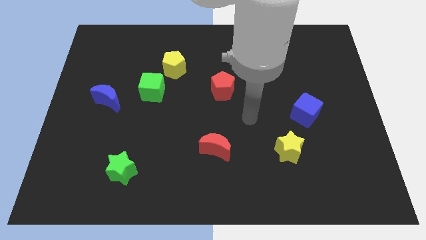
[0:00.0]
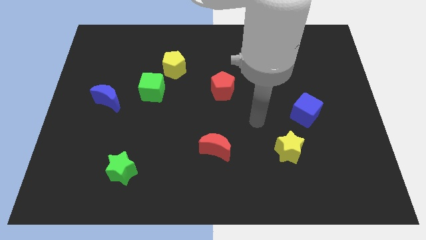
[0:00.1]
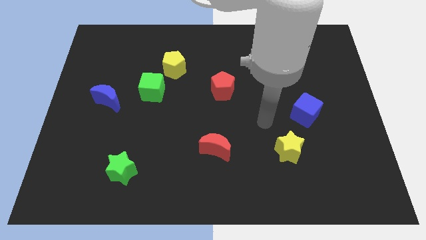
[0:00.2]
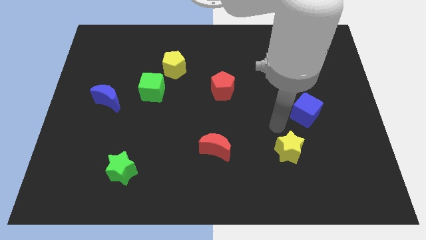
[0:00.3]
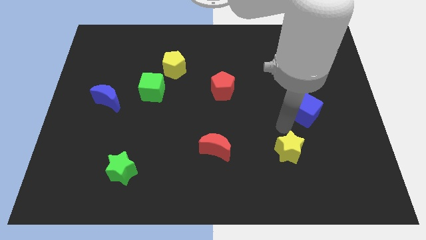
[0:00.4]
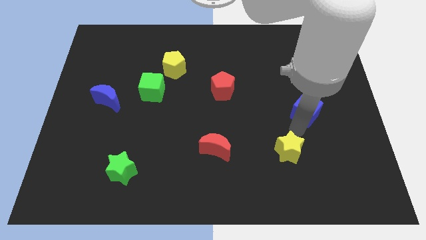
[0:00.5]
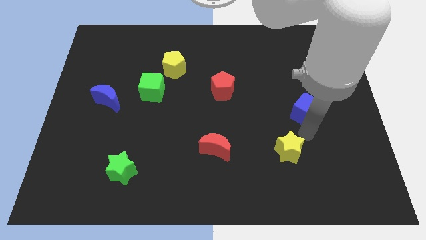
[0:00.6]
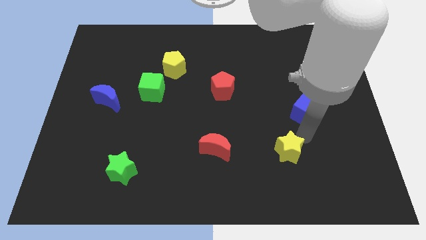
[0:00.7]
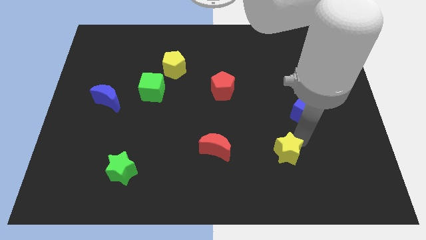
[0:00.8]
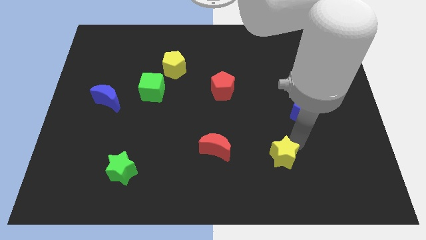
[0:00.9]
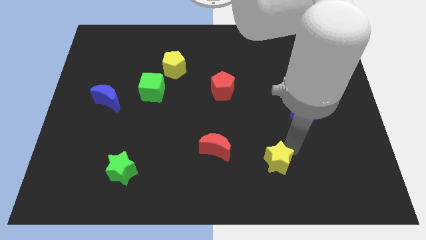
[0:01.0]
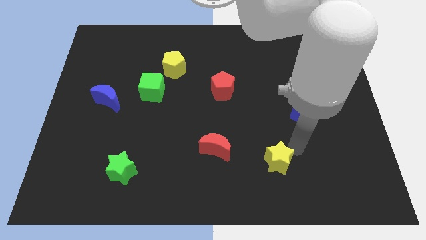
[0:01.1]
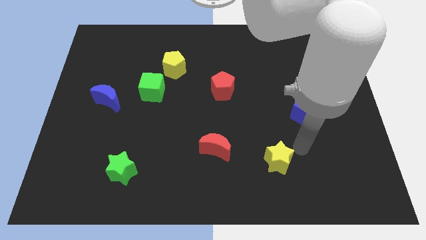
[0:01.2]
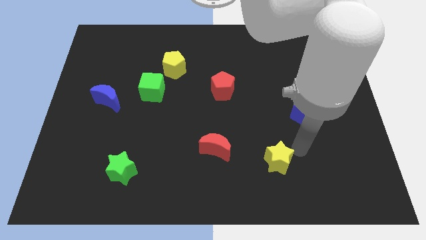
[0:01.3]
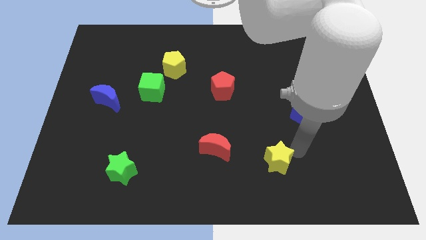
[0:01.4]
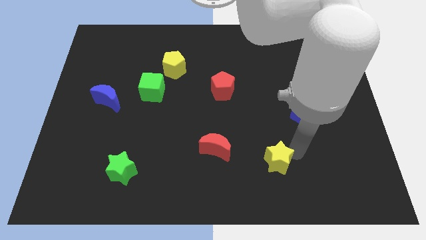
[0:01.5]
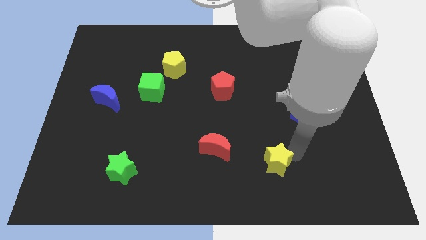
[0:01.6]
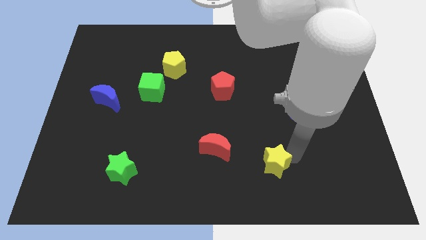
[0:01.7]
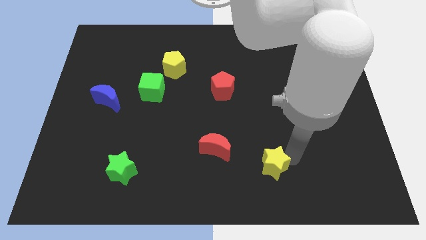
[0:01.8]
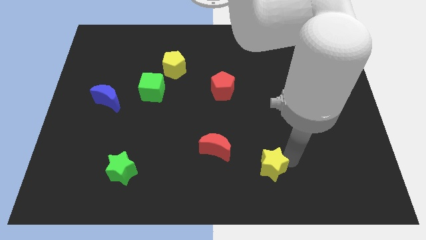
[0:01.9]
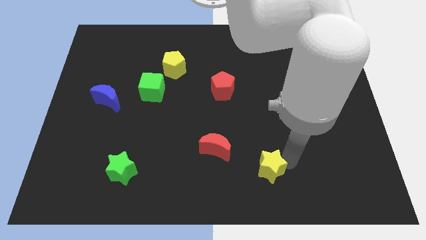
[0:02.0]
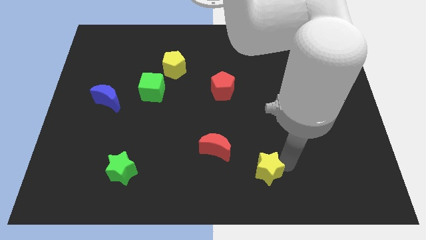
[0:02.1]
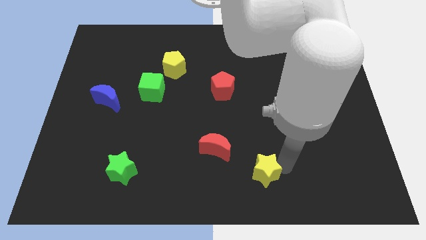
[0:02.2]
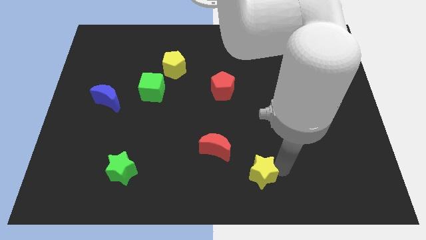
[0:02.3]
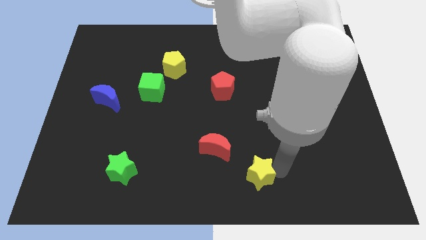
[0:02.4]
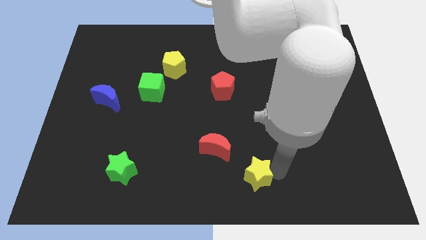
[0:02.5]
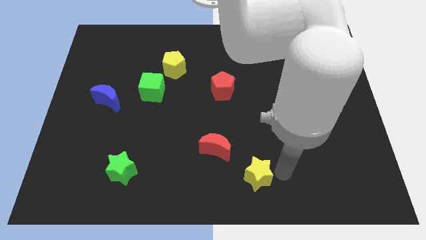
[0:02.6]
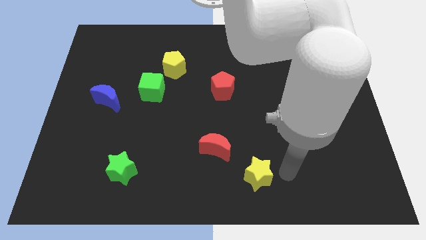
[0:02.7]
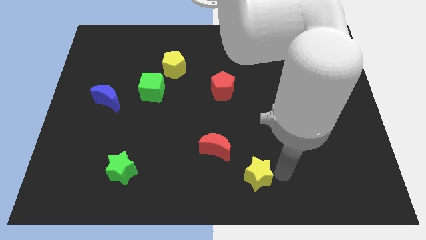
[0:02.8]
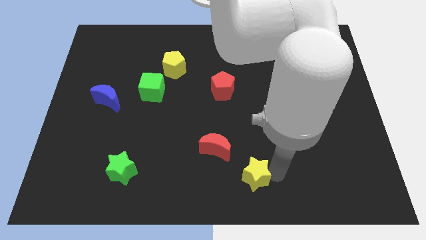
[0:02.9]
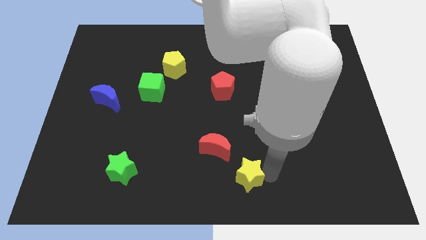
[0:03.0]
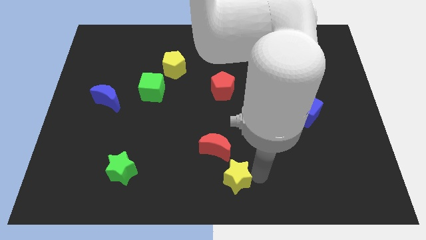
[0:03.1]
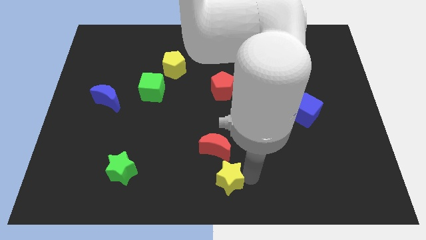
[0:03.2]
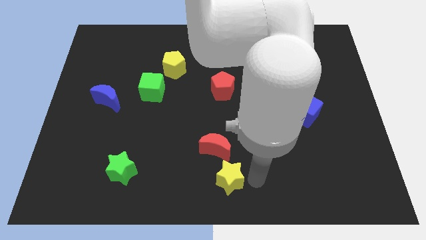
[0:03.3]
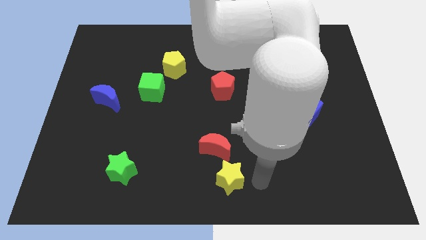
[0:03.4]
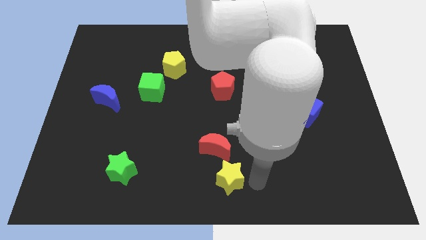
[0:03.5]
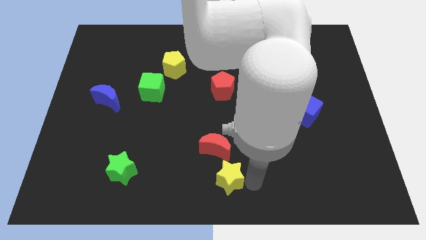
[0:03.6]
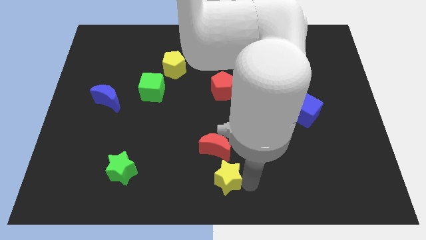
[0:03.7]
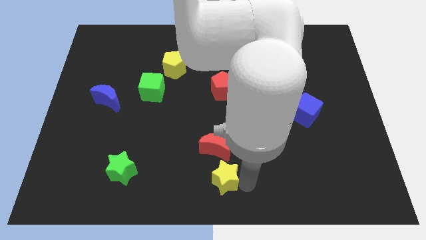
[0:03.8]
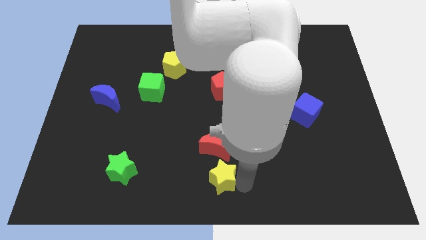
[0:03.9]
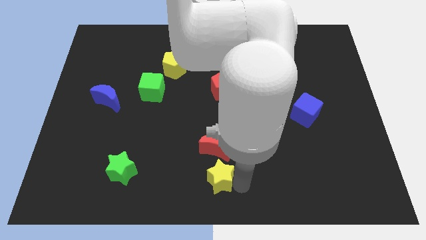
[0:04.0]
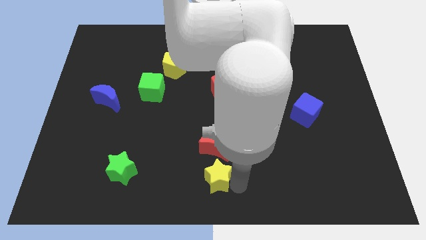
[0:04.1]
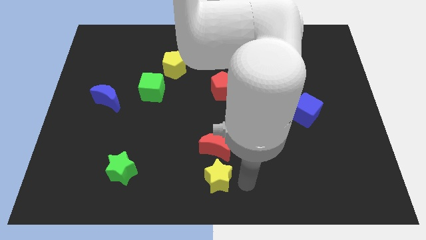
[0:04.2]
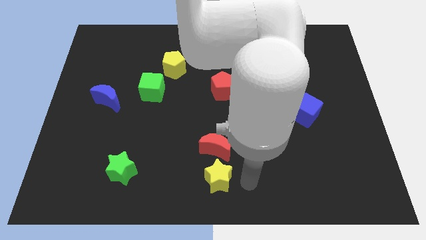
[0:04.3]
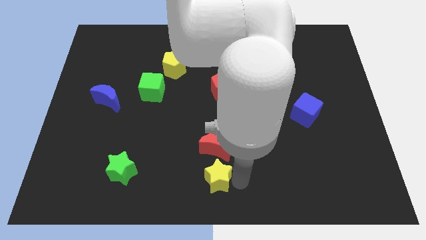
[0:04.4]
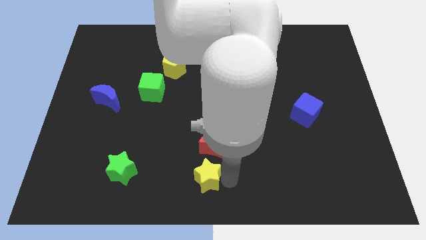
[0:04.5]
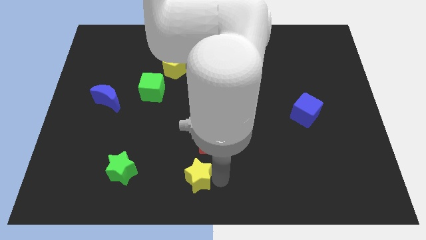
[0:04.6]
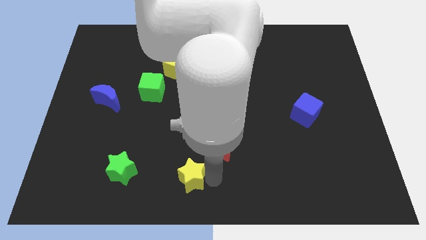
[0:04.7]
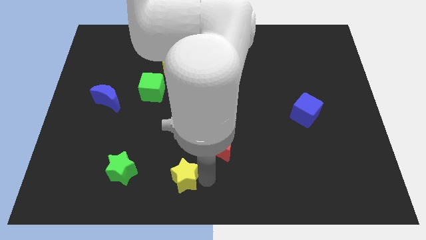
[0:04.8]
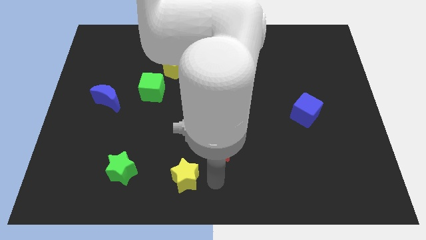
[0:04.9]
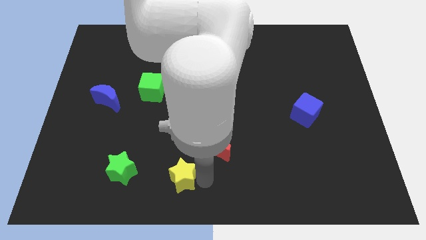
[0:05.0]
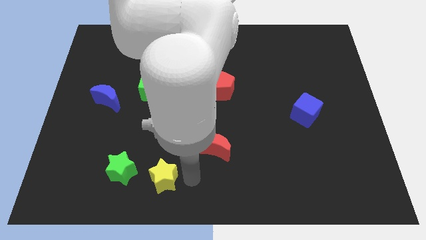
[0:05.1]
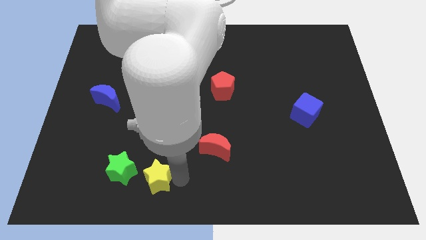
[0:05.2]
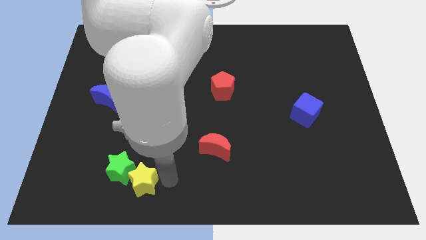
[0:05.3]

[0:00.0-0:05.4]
move the yellow star towards the green star

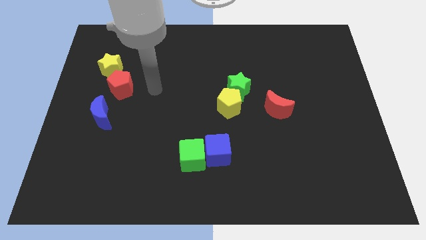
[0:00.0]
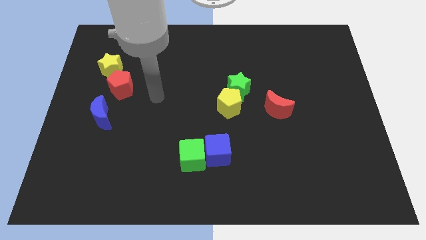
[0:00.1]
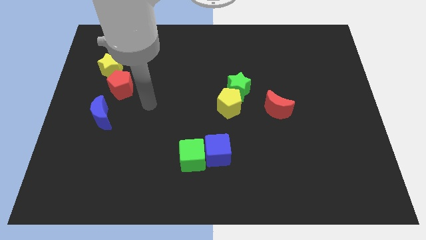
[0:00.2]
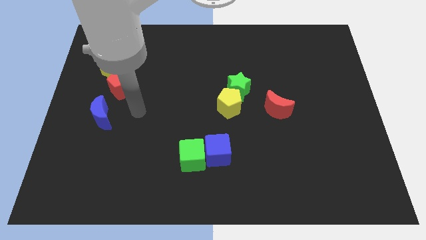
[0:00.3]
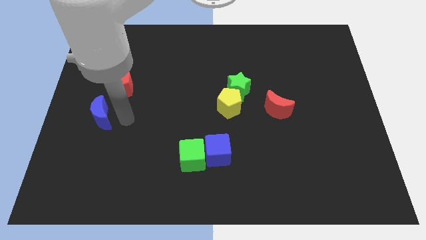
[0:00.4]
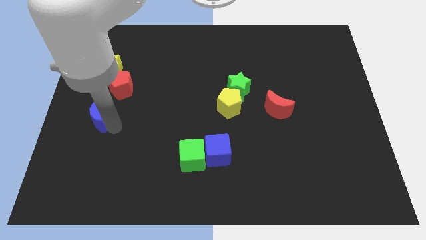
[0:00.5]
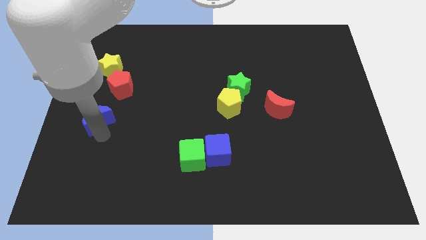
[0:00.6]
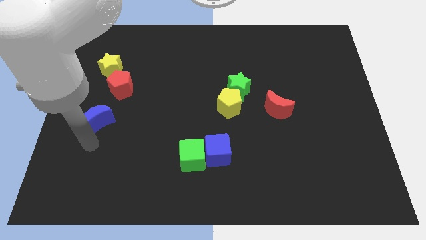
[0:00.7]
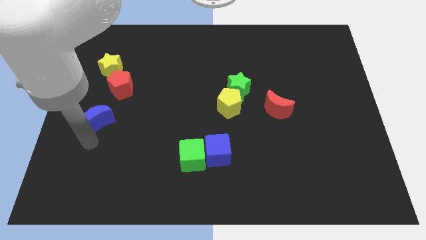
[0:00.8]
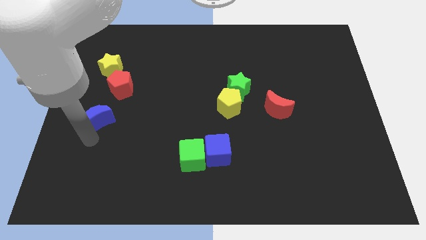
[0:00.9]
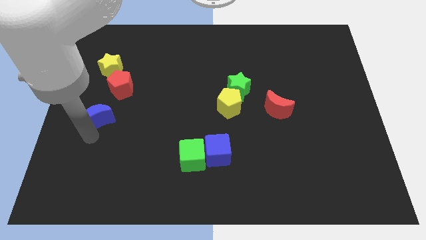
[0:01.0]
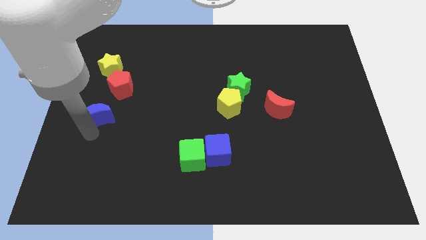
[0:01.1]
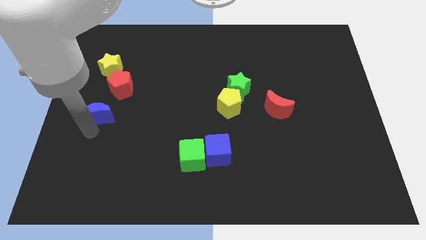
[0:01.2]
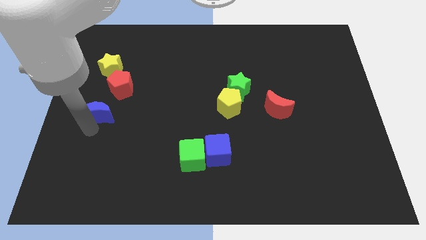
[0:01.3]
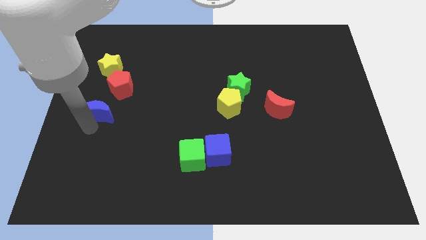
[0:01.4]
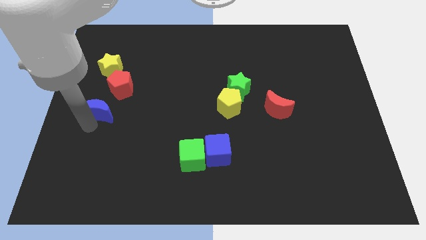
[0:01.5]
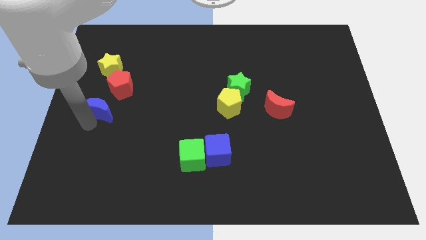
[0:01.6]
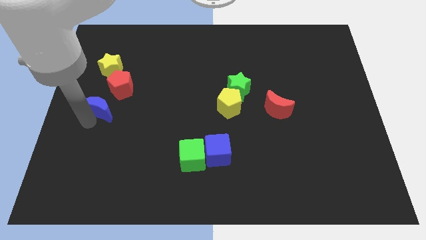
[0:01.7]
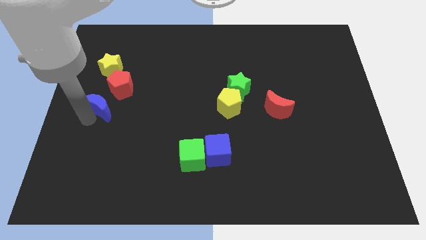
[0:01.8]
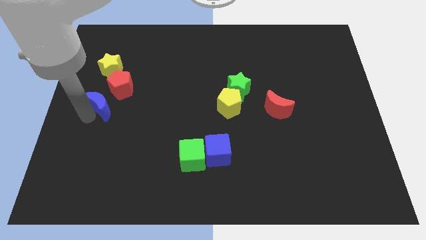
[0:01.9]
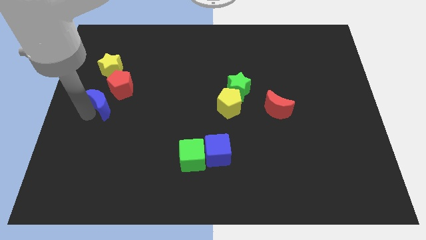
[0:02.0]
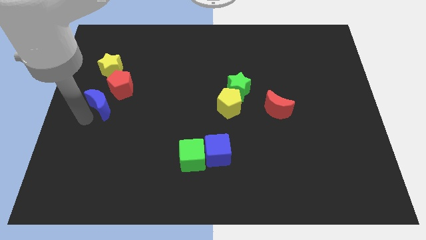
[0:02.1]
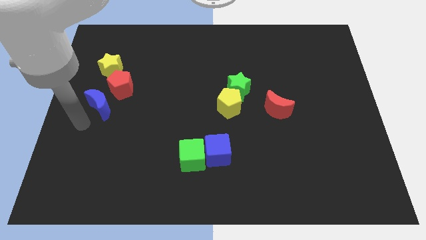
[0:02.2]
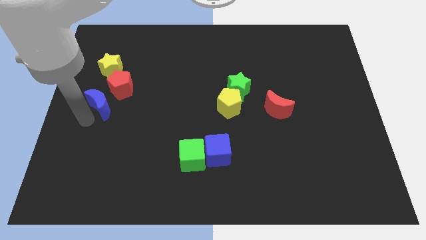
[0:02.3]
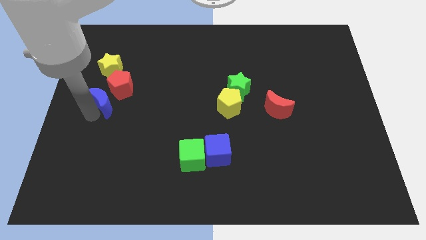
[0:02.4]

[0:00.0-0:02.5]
put the blue moon close to the red pentagon
